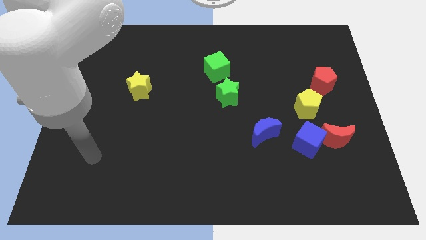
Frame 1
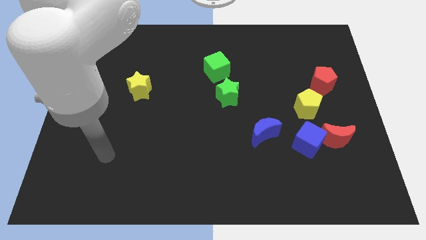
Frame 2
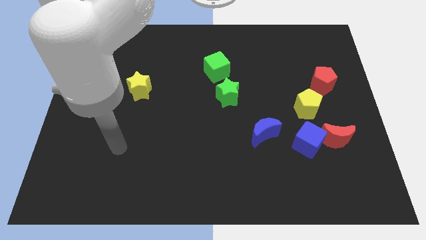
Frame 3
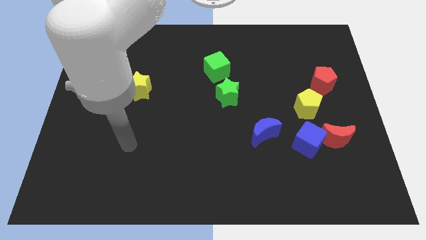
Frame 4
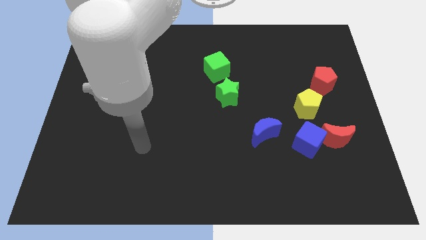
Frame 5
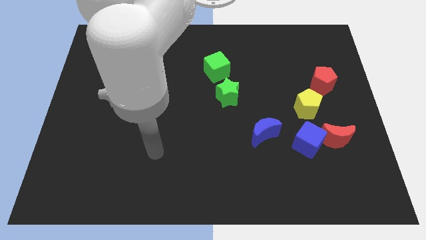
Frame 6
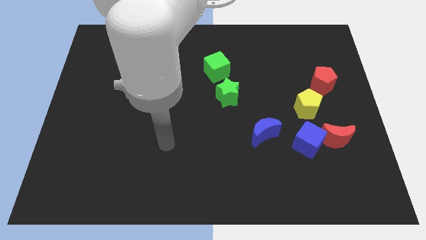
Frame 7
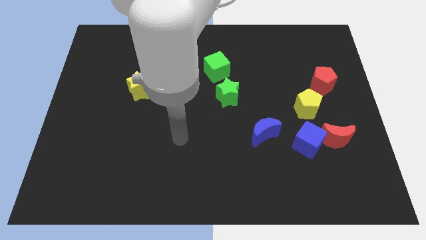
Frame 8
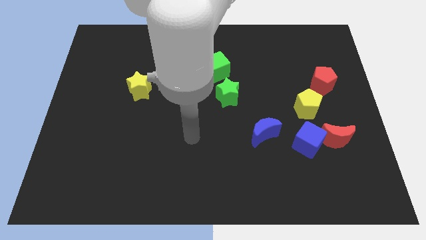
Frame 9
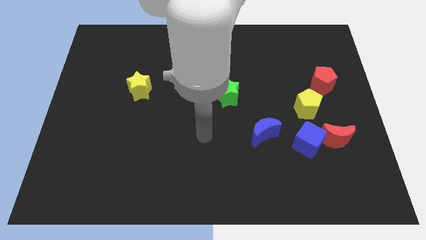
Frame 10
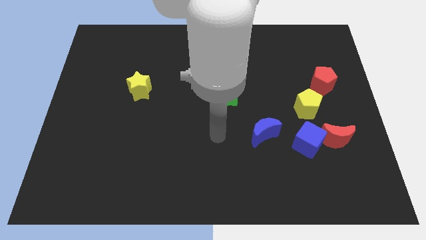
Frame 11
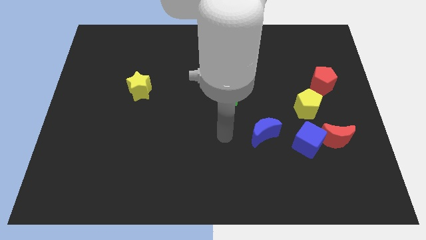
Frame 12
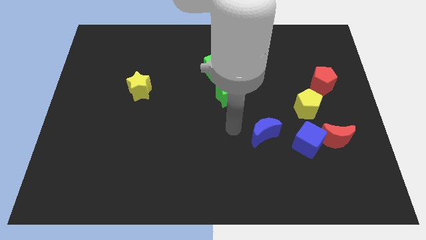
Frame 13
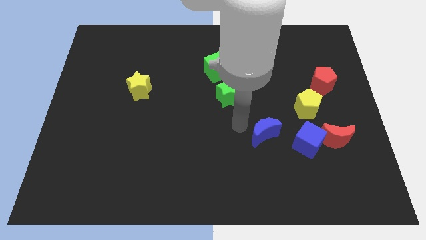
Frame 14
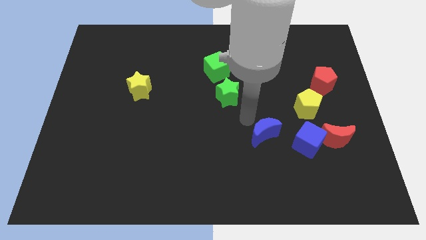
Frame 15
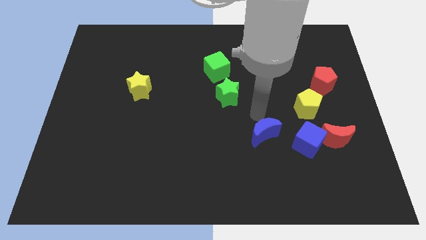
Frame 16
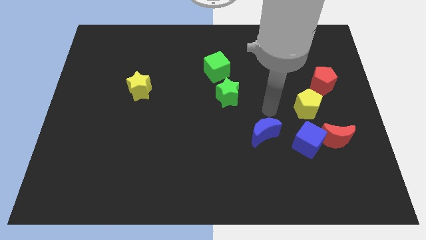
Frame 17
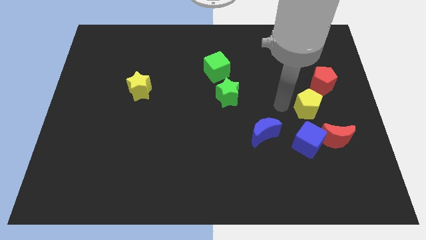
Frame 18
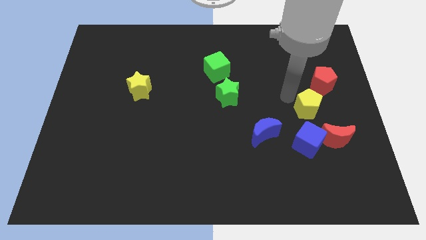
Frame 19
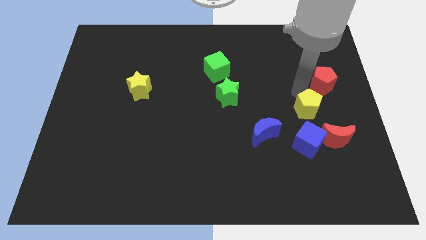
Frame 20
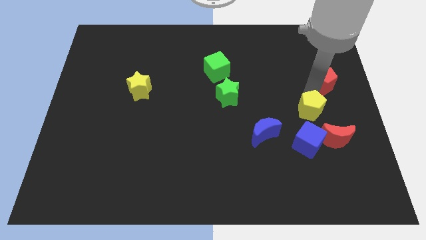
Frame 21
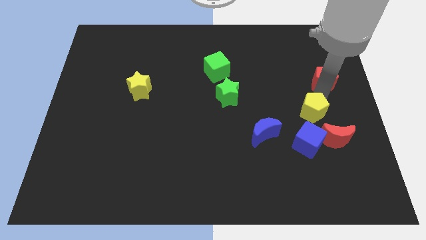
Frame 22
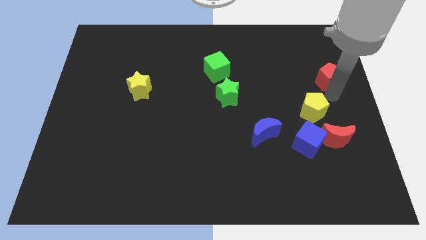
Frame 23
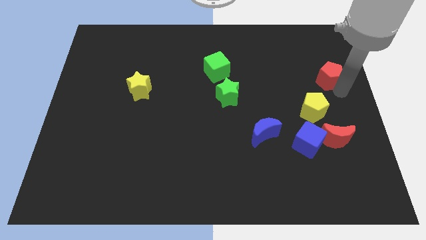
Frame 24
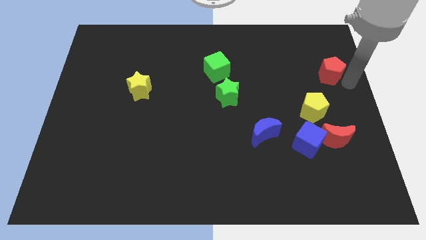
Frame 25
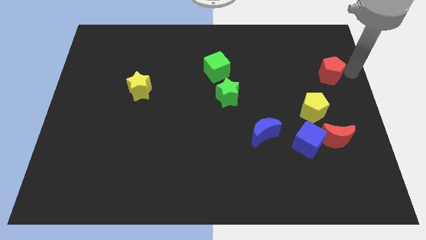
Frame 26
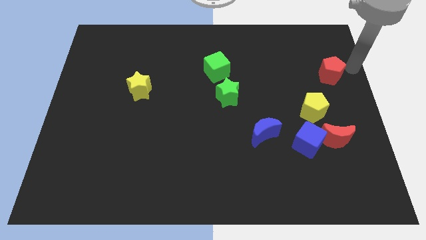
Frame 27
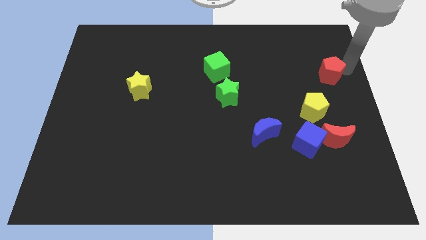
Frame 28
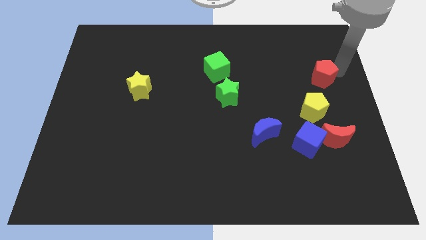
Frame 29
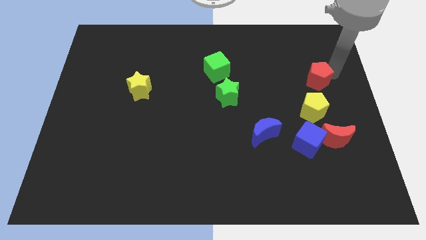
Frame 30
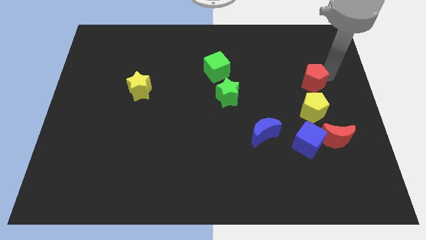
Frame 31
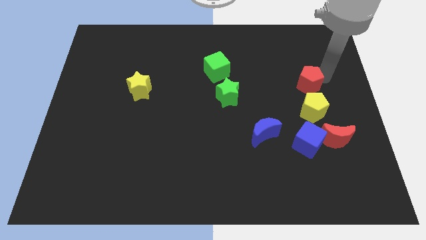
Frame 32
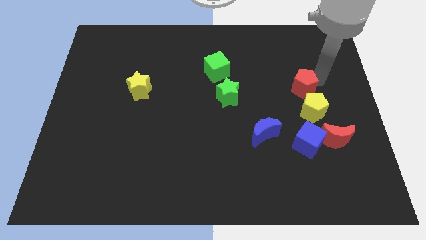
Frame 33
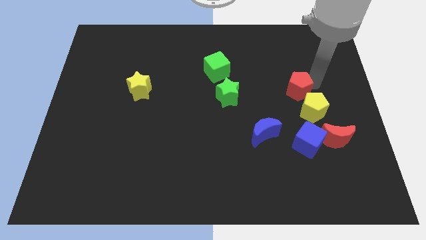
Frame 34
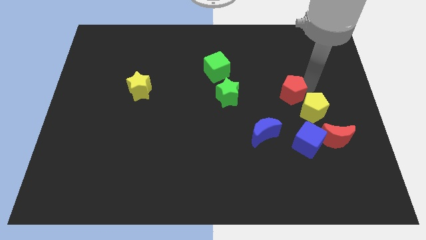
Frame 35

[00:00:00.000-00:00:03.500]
move the red pentagon slightly to the left

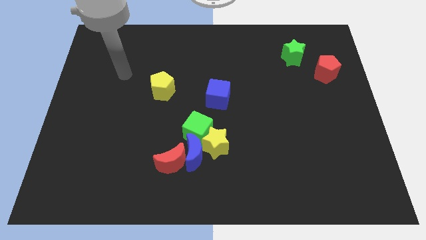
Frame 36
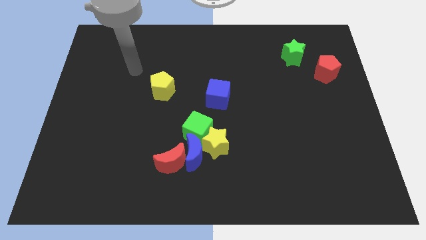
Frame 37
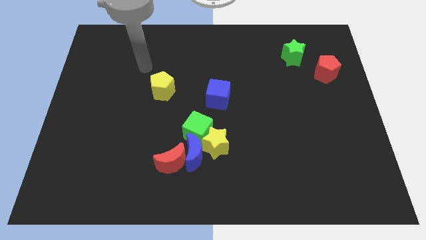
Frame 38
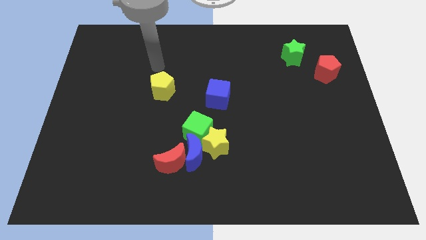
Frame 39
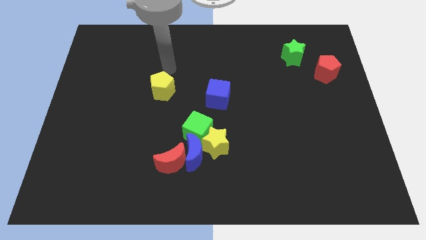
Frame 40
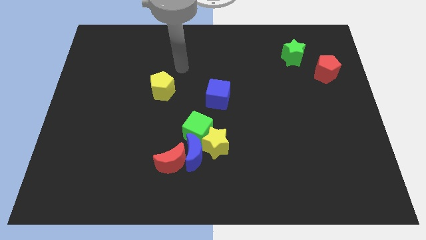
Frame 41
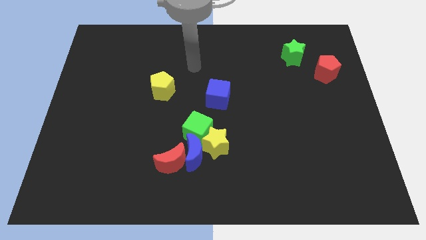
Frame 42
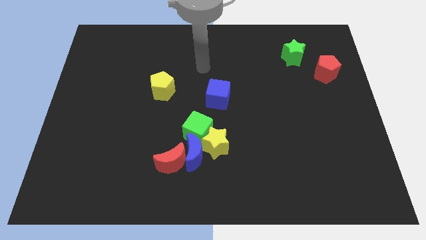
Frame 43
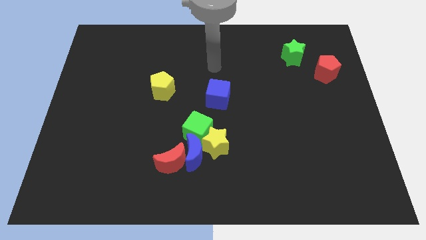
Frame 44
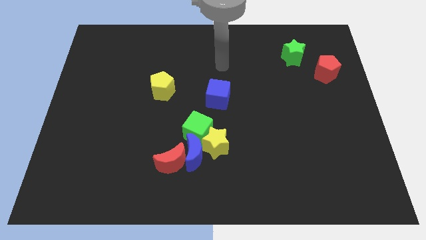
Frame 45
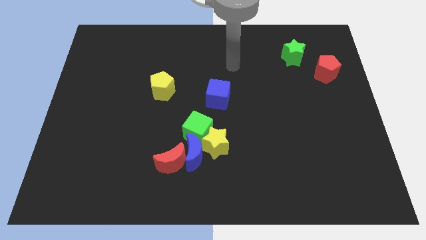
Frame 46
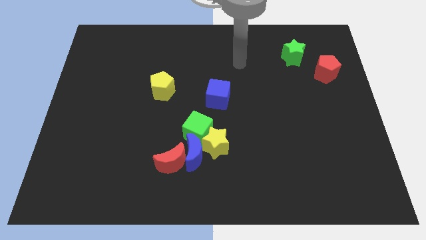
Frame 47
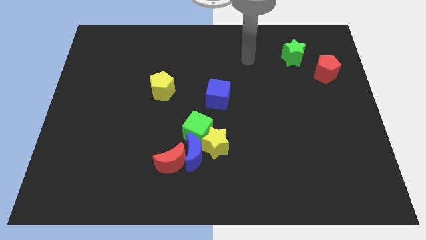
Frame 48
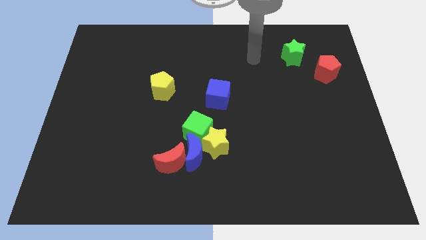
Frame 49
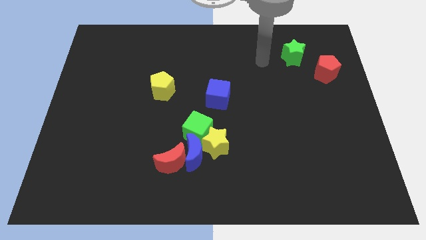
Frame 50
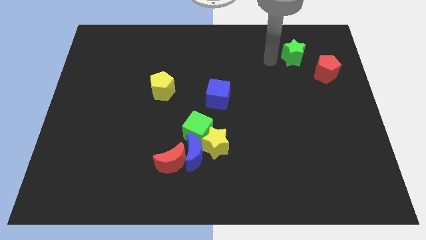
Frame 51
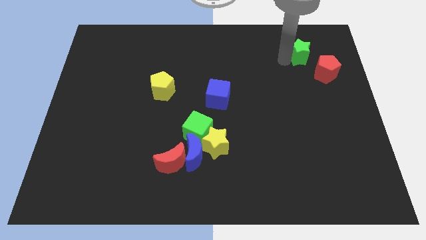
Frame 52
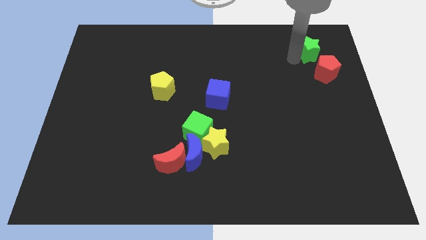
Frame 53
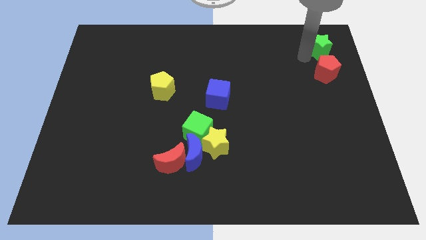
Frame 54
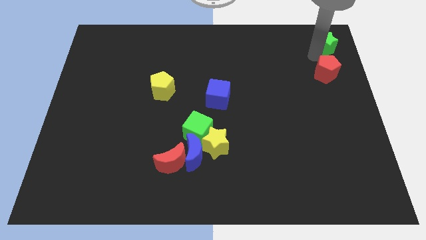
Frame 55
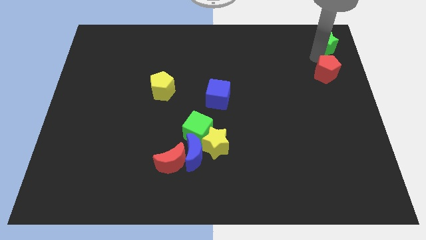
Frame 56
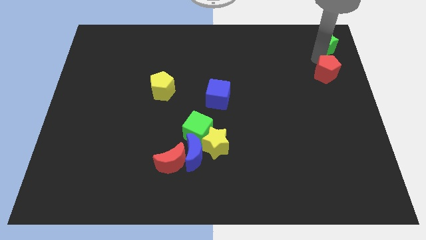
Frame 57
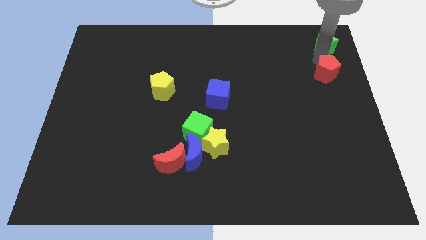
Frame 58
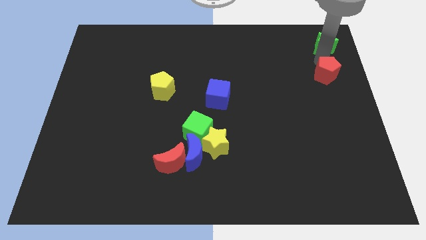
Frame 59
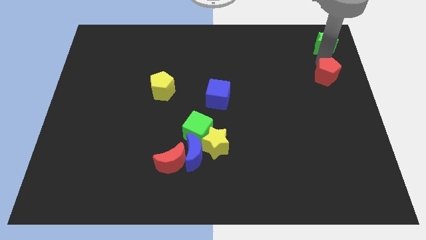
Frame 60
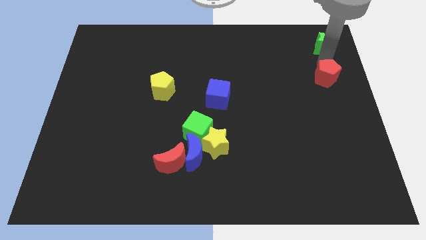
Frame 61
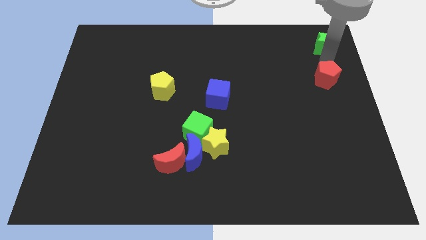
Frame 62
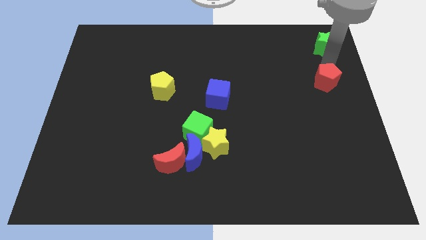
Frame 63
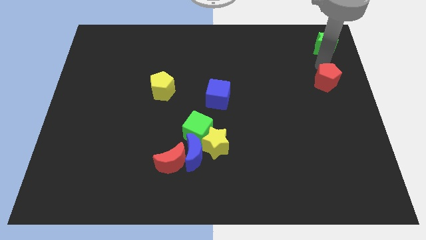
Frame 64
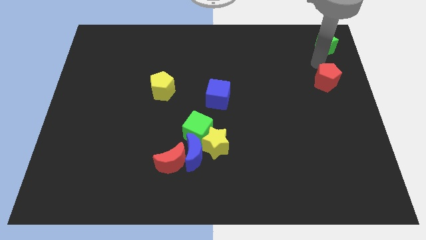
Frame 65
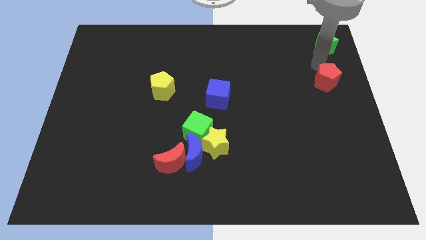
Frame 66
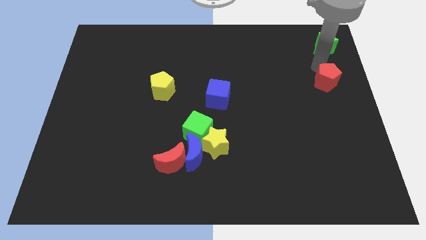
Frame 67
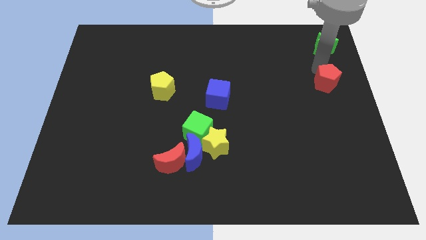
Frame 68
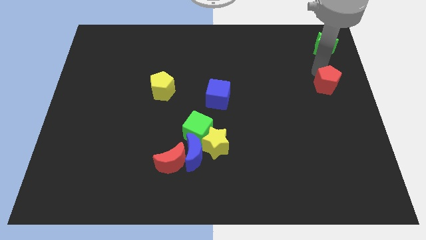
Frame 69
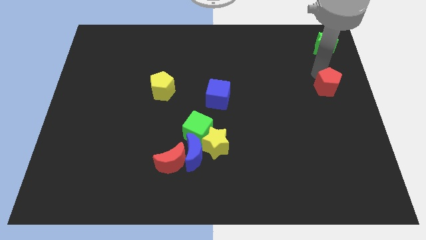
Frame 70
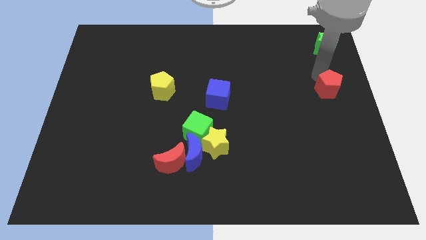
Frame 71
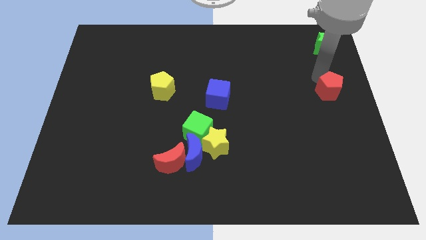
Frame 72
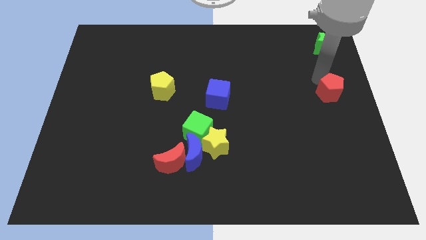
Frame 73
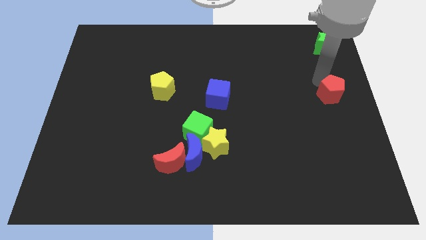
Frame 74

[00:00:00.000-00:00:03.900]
slightly move the red pentagon down

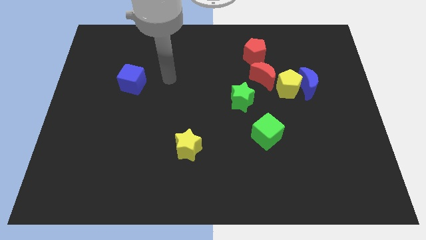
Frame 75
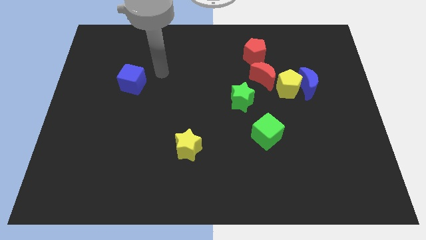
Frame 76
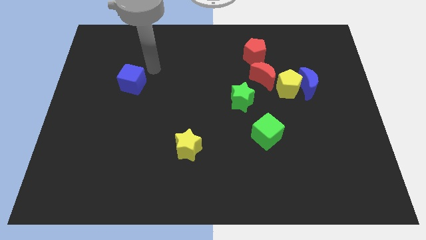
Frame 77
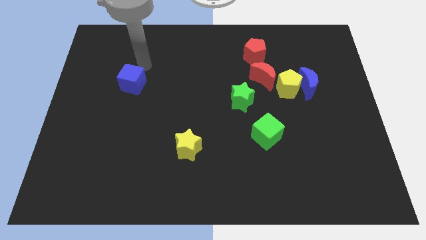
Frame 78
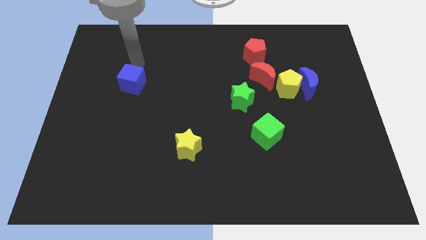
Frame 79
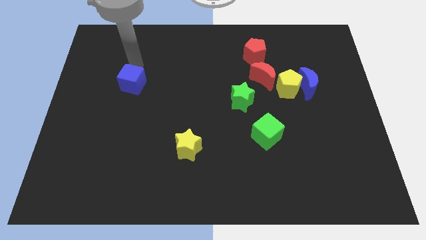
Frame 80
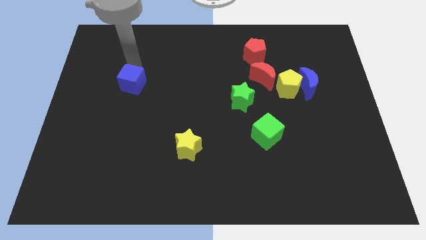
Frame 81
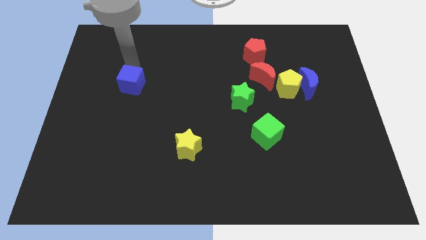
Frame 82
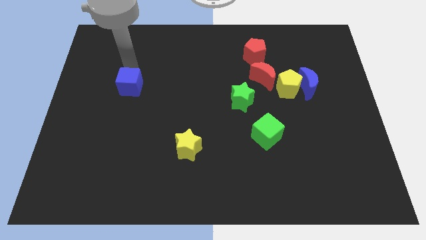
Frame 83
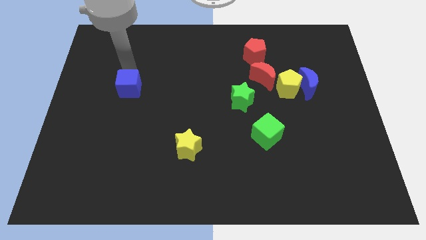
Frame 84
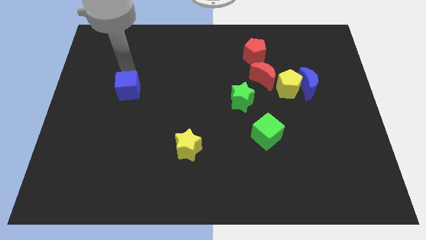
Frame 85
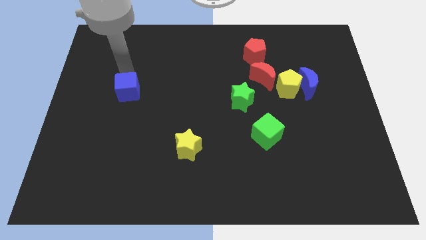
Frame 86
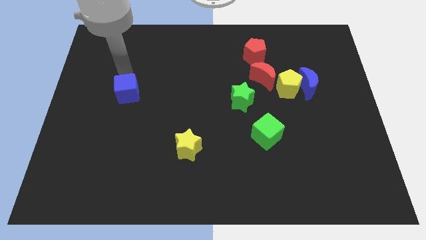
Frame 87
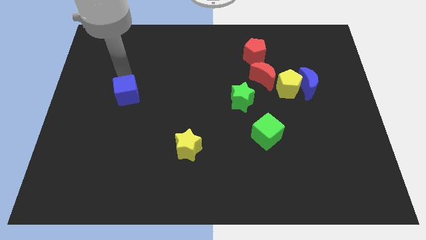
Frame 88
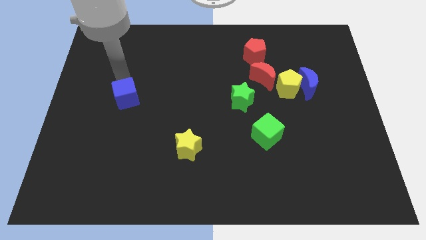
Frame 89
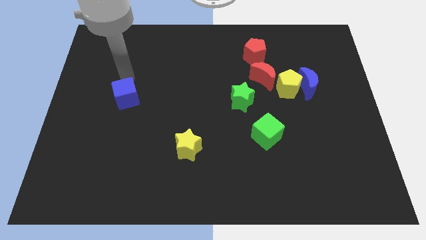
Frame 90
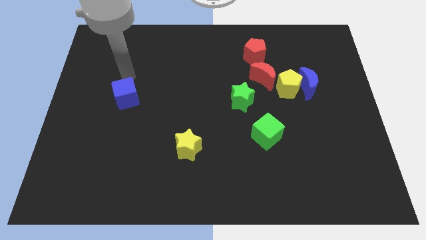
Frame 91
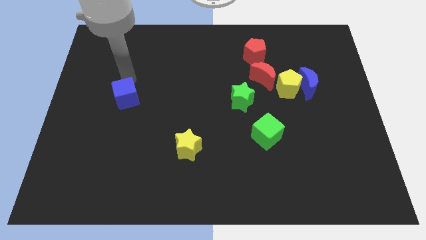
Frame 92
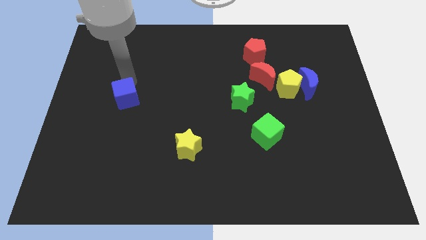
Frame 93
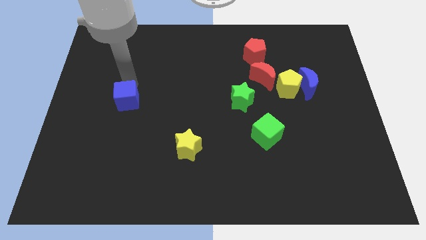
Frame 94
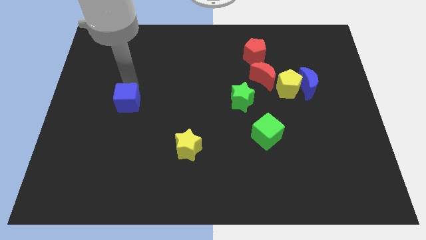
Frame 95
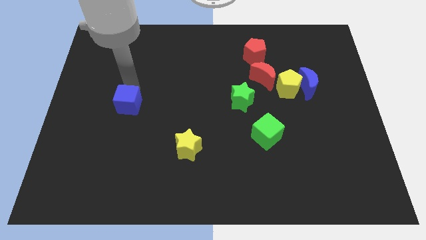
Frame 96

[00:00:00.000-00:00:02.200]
move the blue cube downwards slightly
